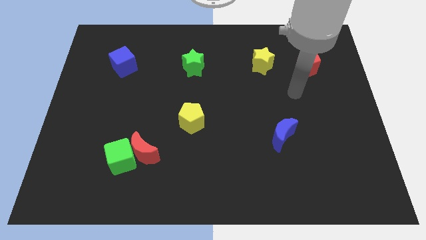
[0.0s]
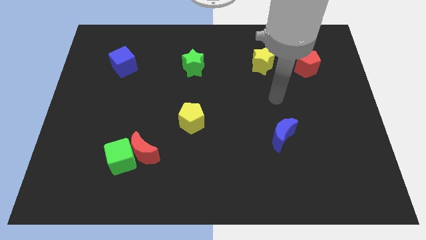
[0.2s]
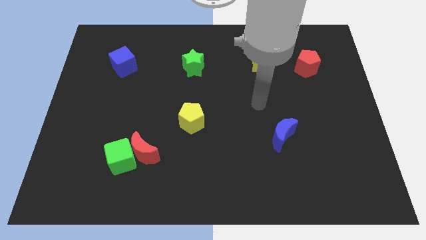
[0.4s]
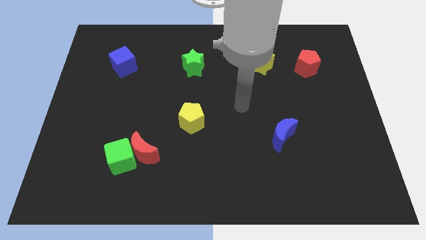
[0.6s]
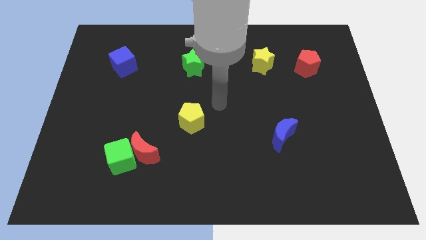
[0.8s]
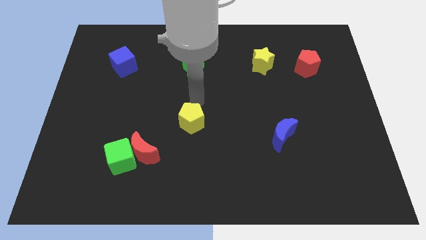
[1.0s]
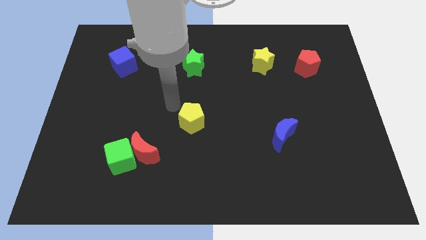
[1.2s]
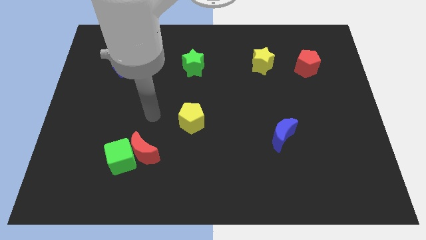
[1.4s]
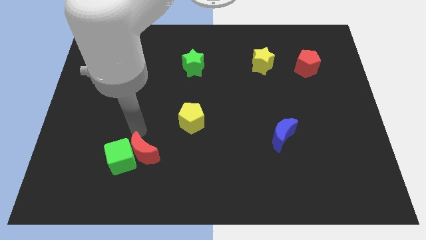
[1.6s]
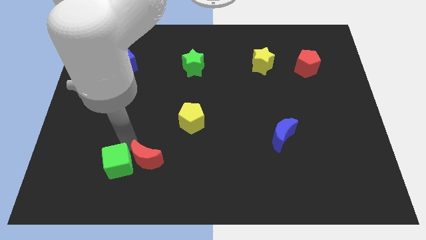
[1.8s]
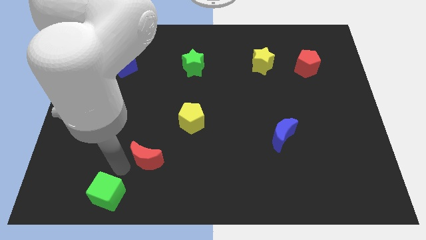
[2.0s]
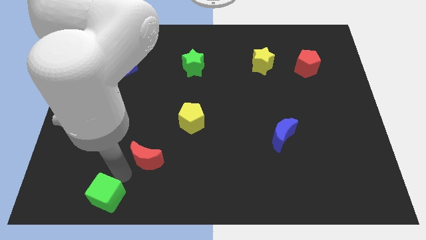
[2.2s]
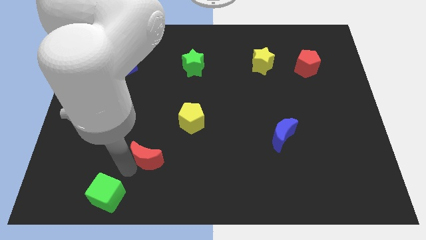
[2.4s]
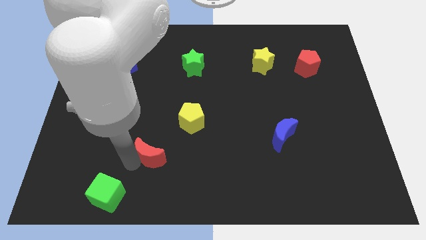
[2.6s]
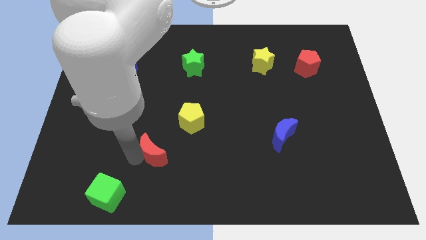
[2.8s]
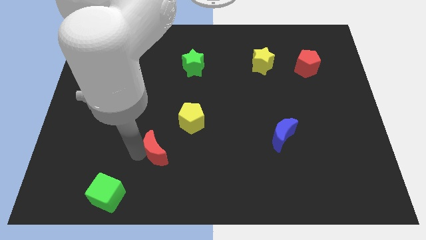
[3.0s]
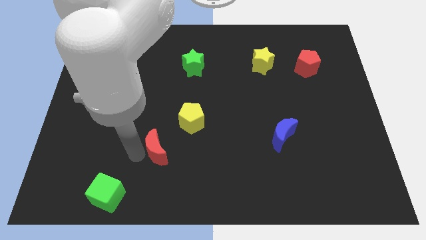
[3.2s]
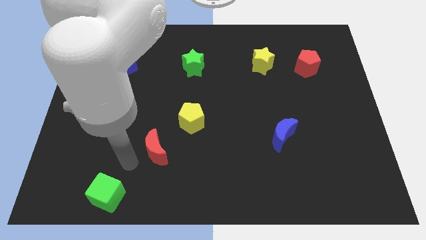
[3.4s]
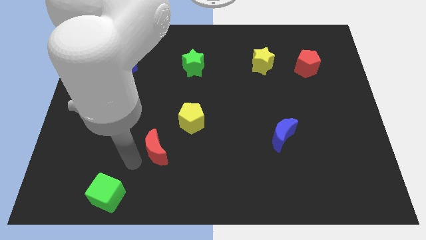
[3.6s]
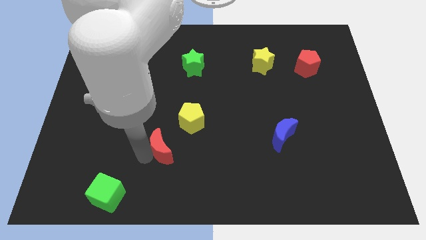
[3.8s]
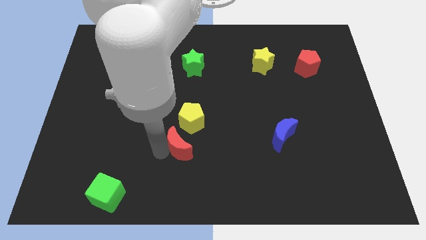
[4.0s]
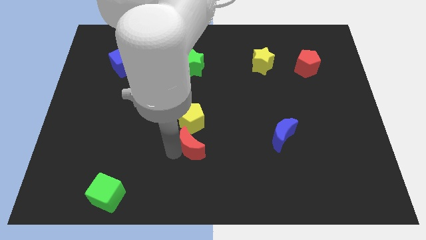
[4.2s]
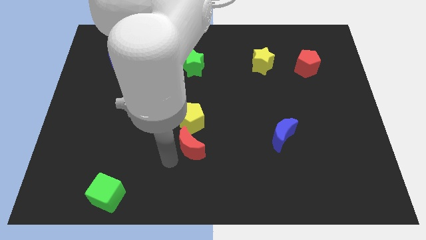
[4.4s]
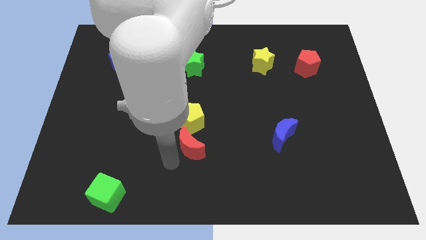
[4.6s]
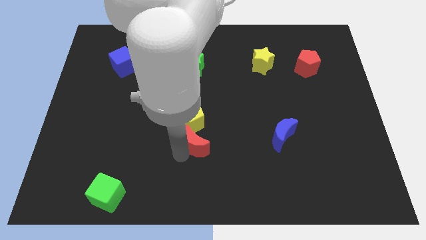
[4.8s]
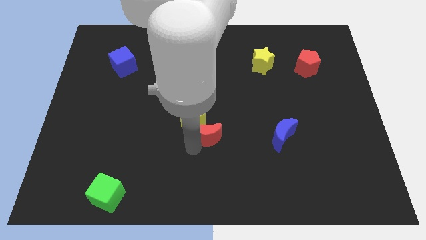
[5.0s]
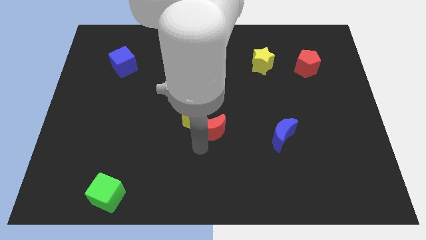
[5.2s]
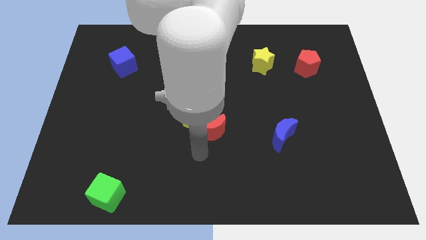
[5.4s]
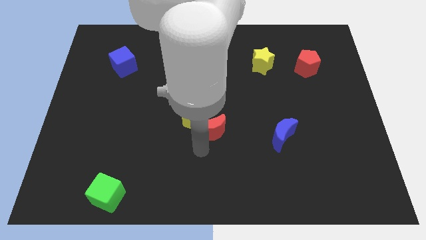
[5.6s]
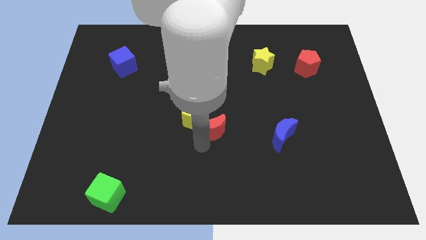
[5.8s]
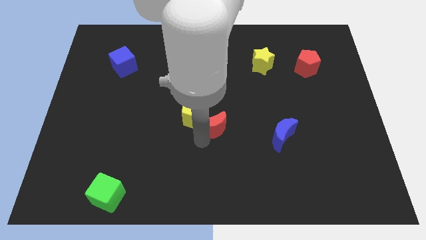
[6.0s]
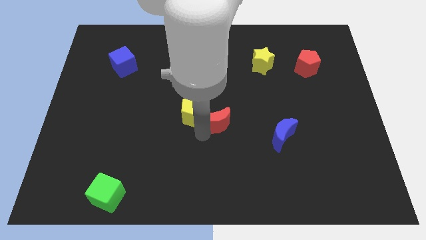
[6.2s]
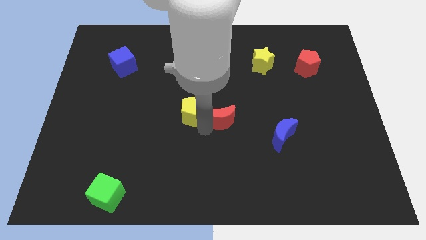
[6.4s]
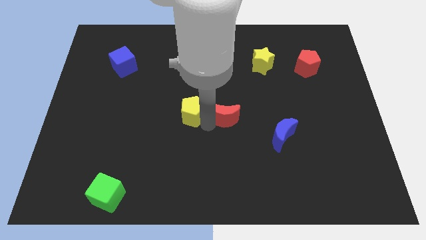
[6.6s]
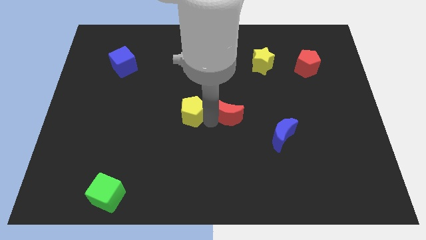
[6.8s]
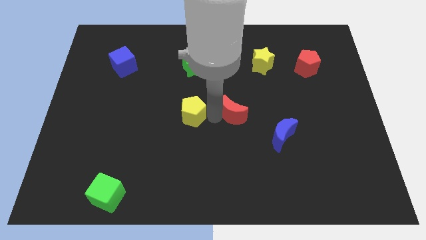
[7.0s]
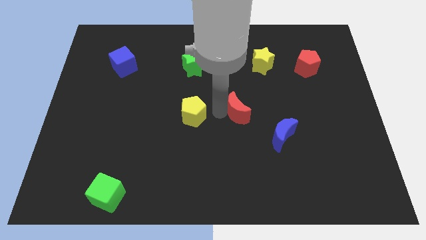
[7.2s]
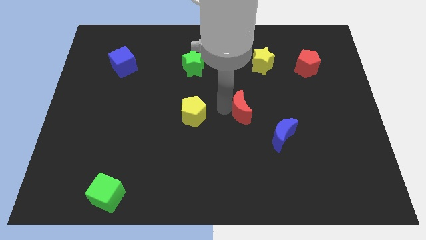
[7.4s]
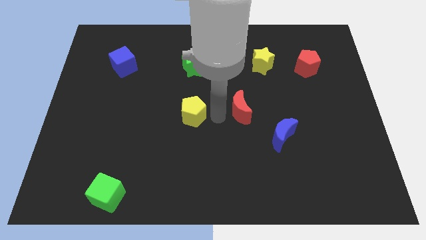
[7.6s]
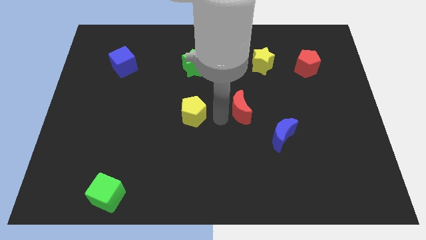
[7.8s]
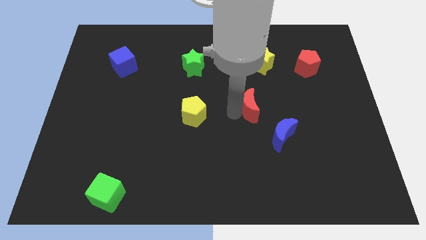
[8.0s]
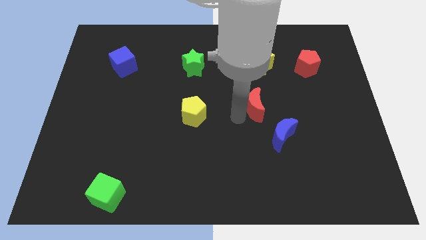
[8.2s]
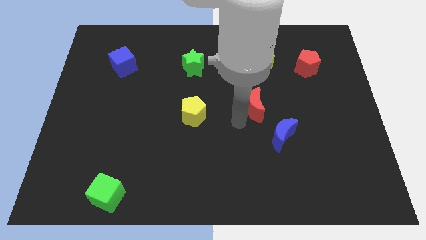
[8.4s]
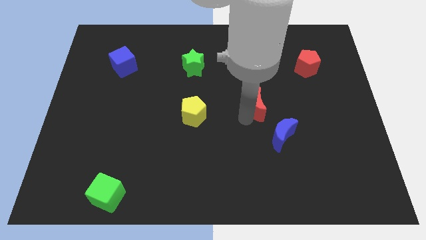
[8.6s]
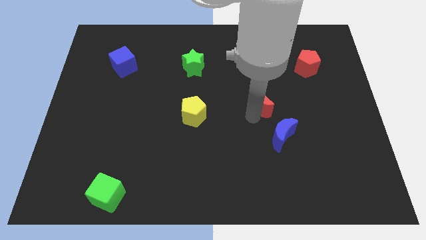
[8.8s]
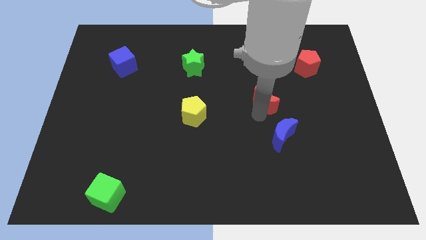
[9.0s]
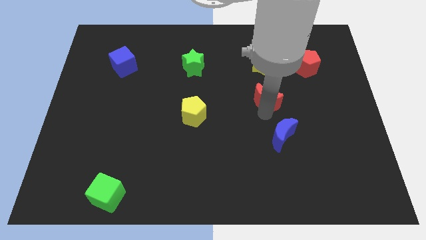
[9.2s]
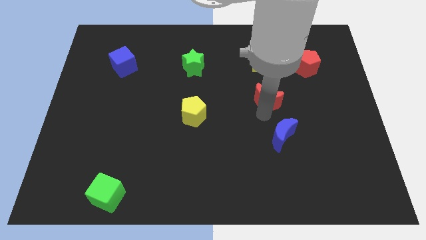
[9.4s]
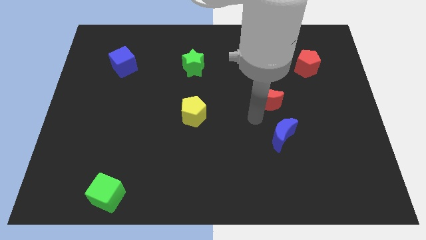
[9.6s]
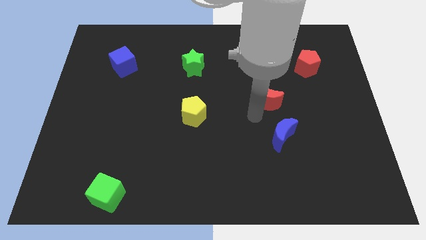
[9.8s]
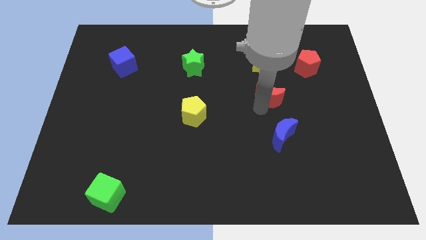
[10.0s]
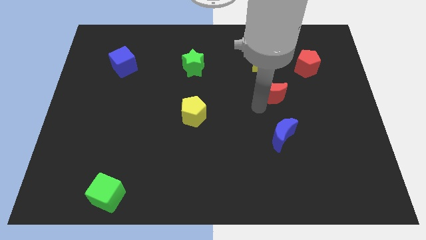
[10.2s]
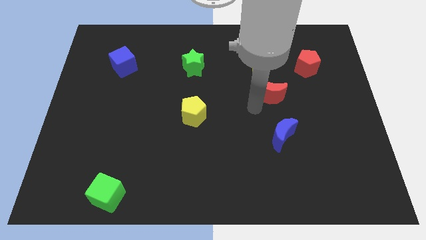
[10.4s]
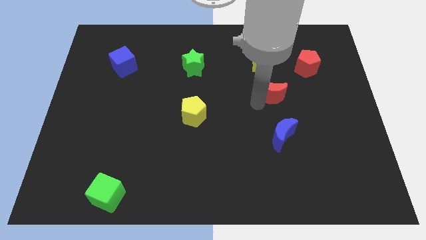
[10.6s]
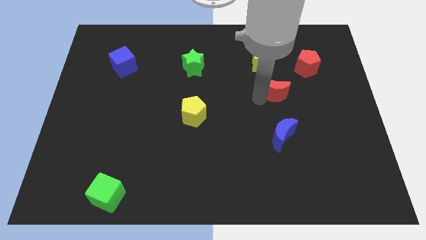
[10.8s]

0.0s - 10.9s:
push the red moon to the bottom left of the red pentagon

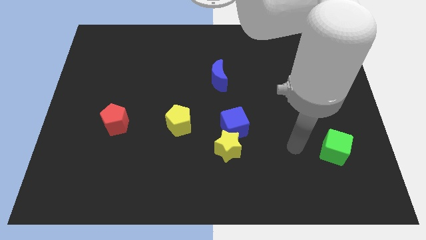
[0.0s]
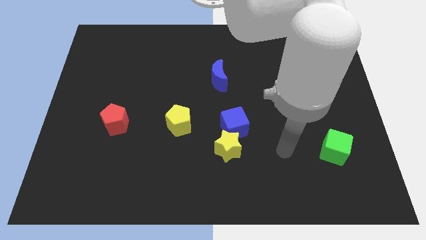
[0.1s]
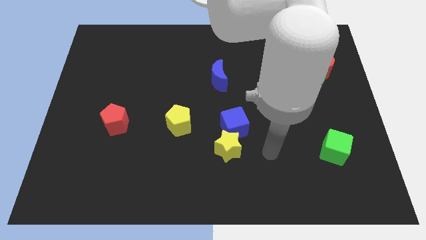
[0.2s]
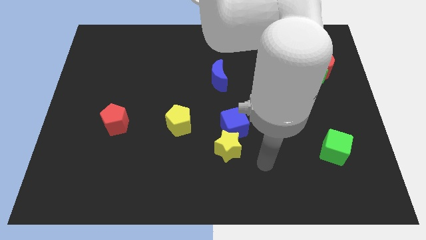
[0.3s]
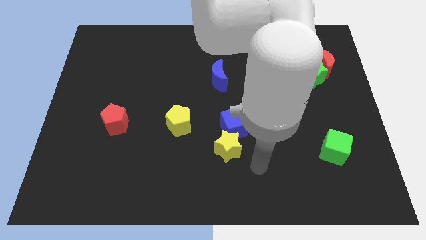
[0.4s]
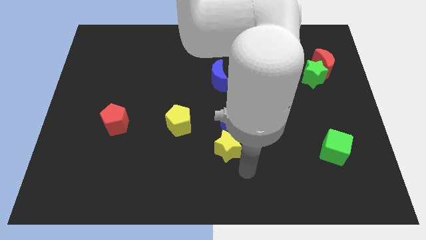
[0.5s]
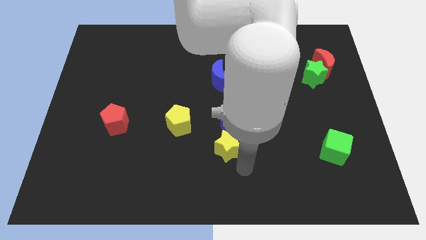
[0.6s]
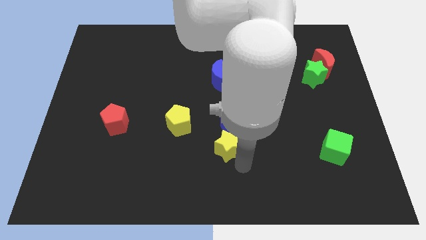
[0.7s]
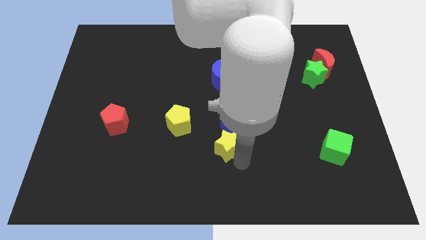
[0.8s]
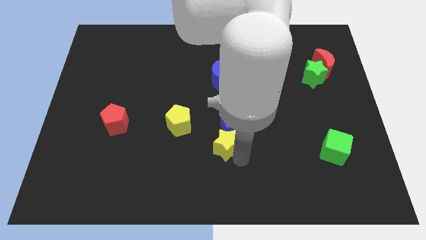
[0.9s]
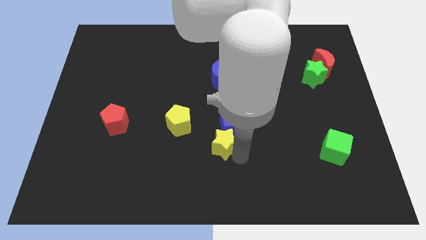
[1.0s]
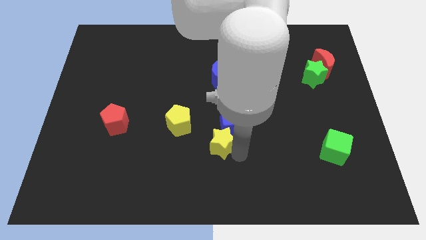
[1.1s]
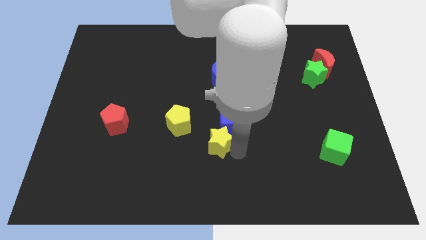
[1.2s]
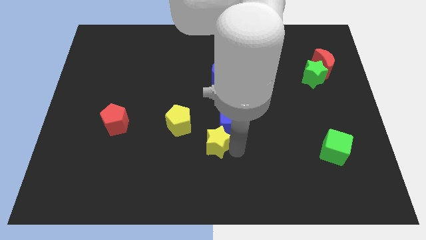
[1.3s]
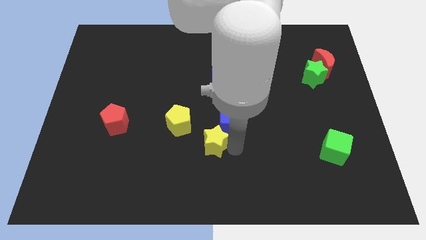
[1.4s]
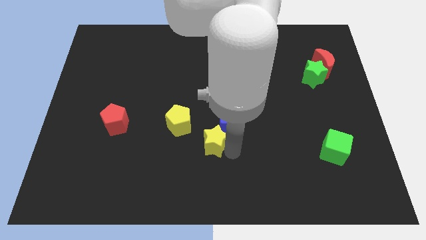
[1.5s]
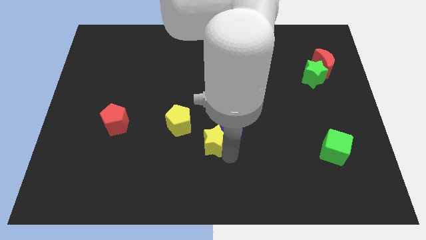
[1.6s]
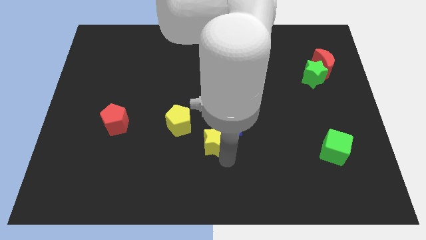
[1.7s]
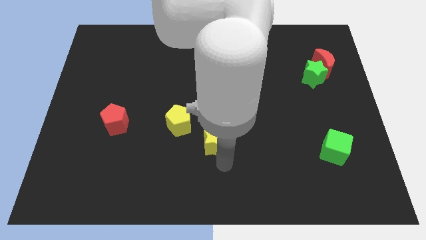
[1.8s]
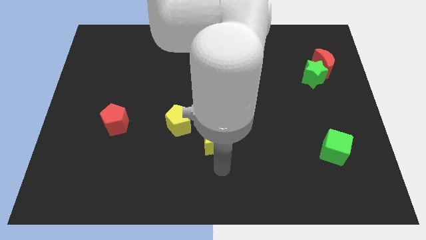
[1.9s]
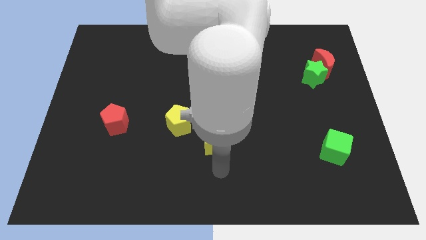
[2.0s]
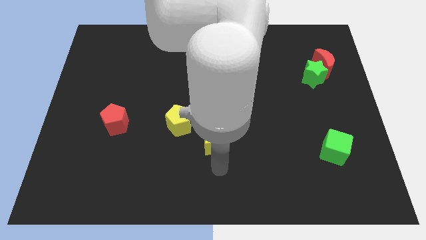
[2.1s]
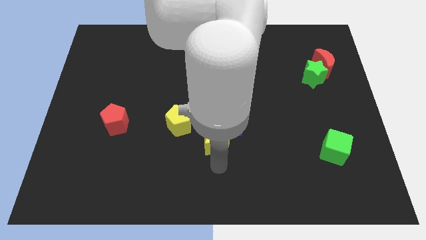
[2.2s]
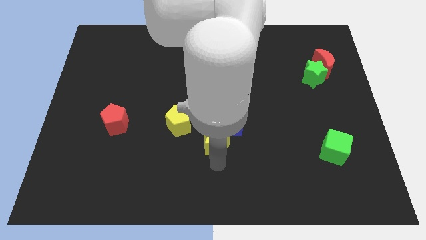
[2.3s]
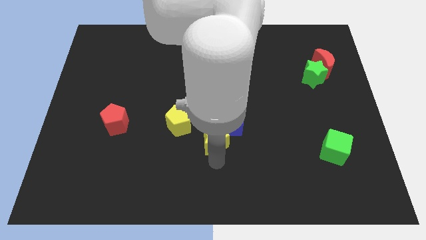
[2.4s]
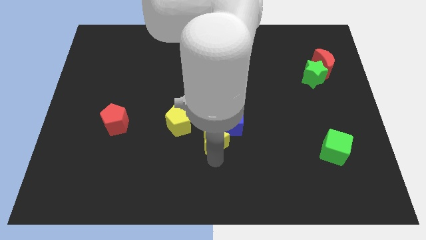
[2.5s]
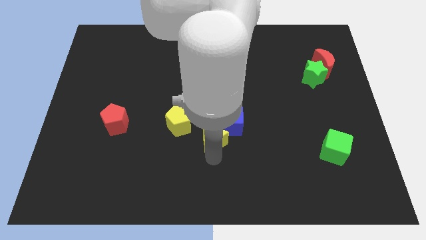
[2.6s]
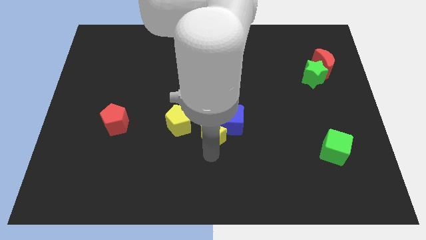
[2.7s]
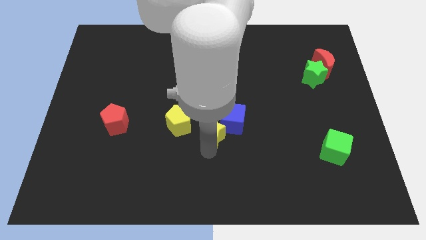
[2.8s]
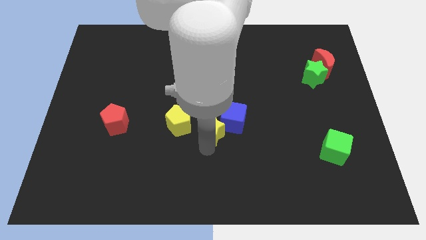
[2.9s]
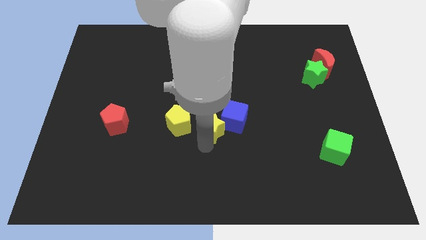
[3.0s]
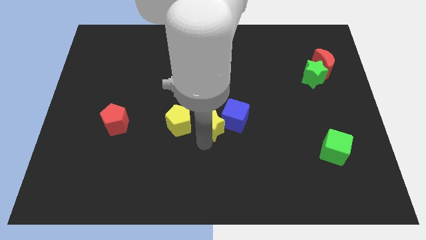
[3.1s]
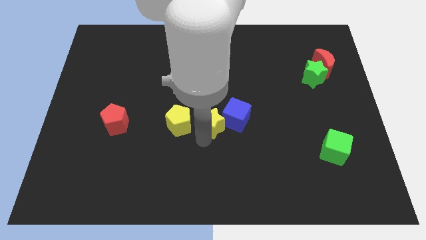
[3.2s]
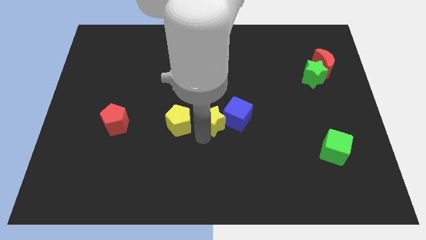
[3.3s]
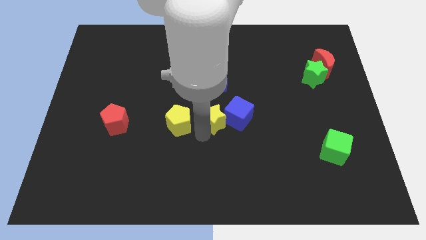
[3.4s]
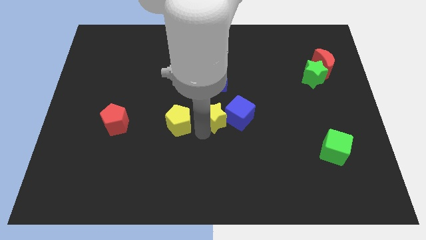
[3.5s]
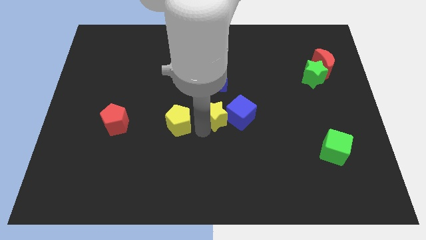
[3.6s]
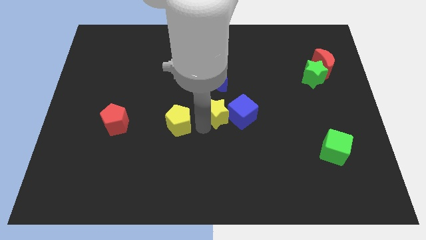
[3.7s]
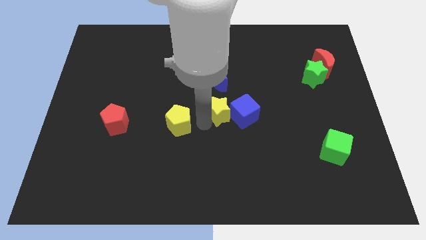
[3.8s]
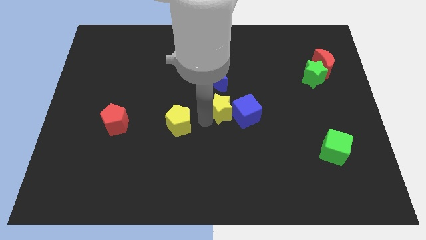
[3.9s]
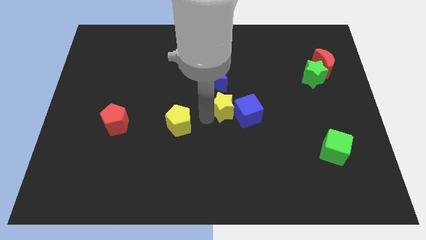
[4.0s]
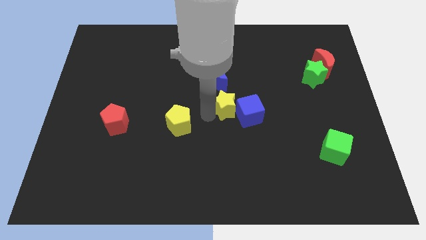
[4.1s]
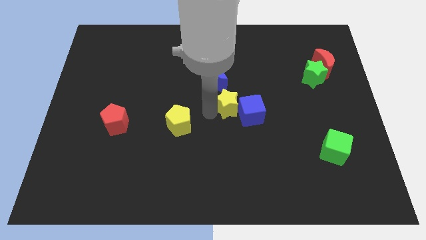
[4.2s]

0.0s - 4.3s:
slide the yellow star diagonally down and to the right of the blue moon
